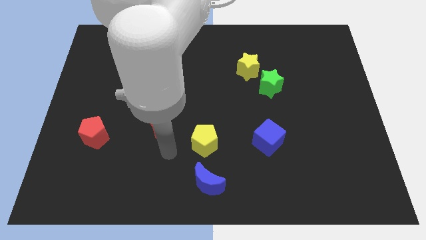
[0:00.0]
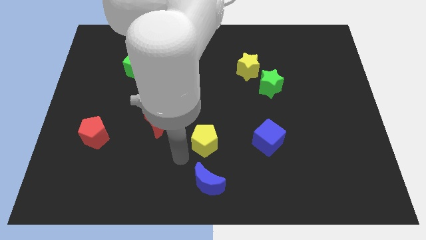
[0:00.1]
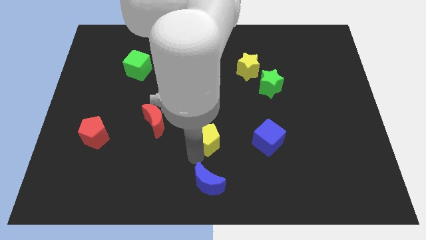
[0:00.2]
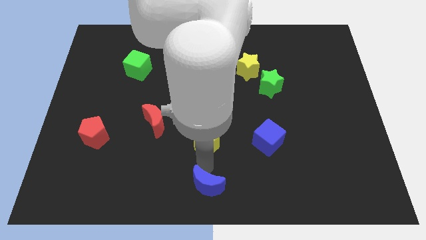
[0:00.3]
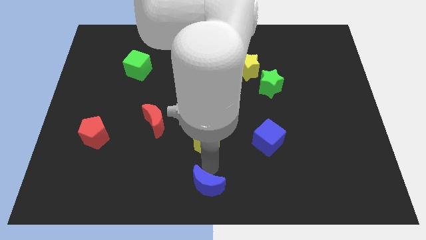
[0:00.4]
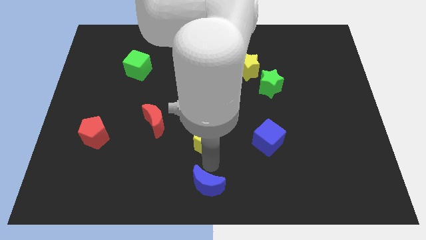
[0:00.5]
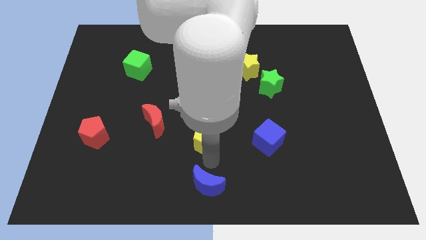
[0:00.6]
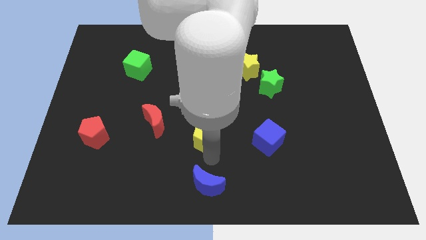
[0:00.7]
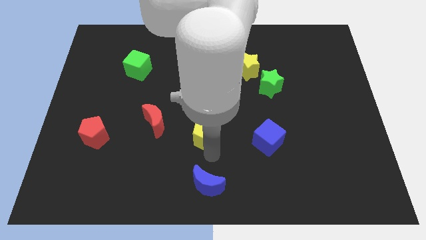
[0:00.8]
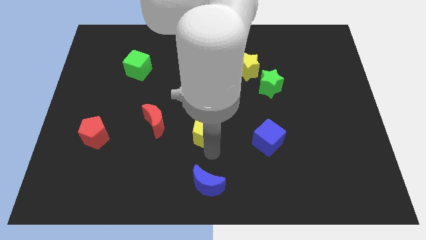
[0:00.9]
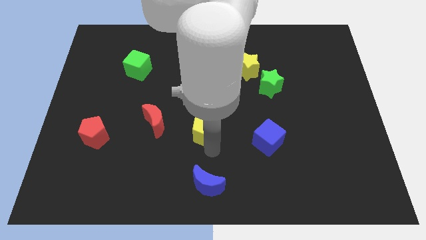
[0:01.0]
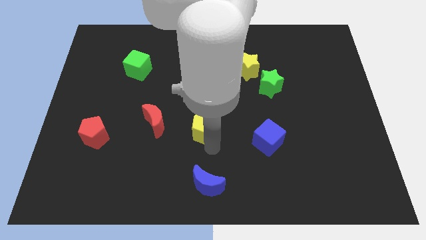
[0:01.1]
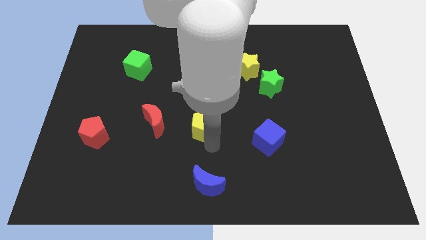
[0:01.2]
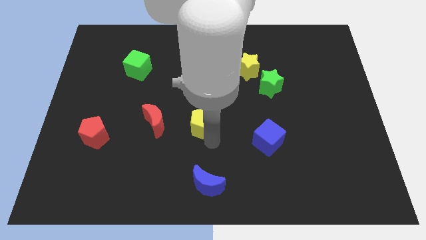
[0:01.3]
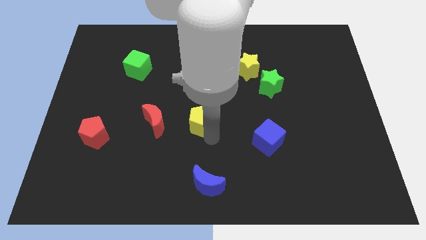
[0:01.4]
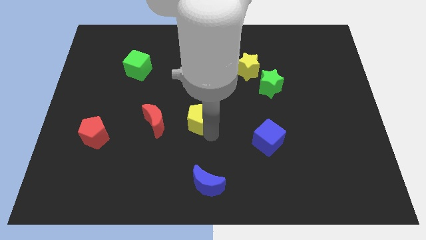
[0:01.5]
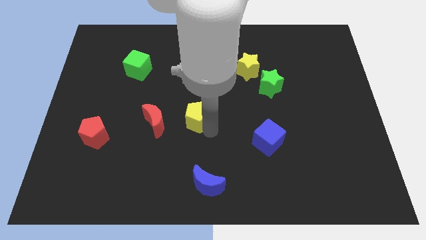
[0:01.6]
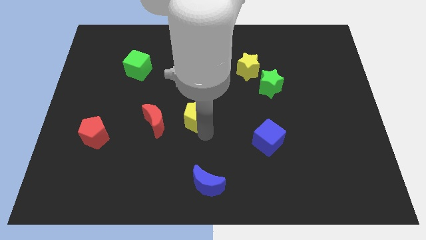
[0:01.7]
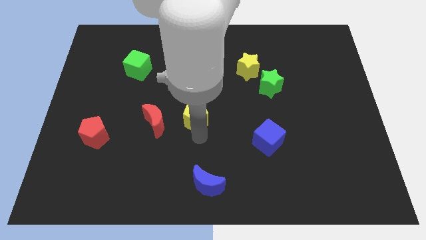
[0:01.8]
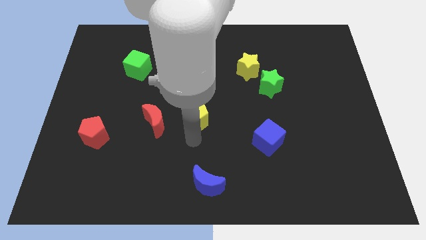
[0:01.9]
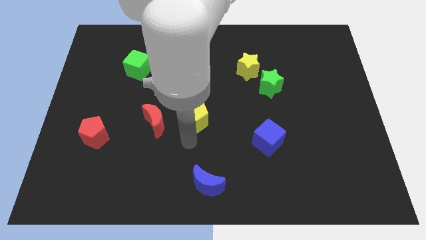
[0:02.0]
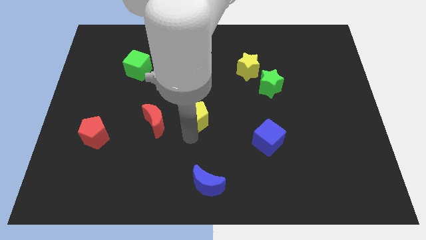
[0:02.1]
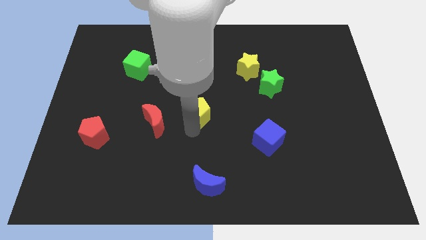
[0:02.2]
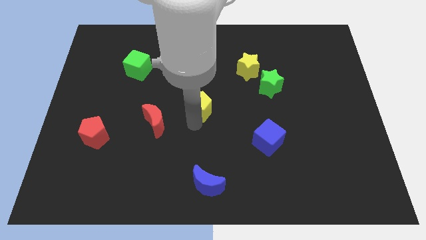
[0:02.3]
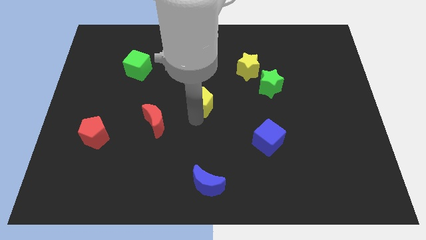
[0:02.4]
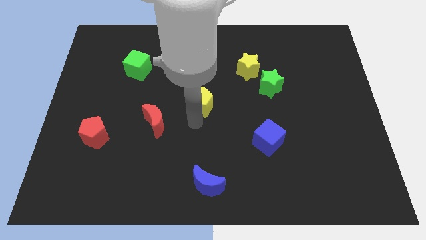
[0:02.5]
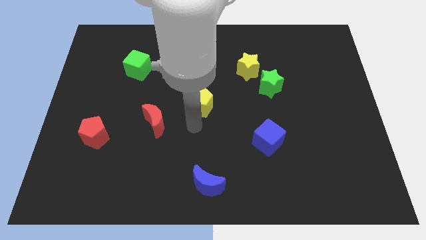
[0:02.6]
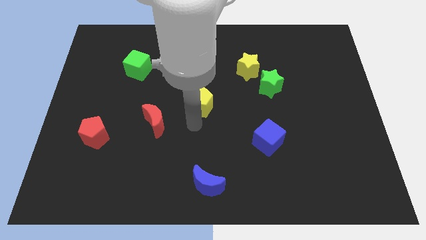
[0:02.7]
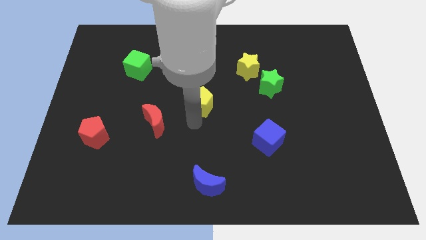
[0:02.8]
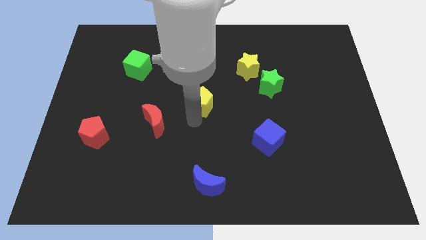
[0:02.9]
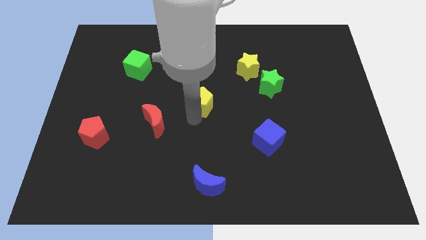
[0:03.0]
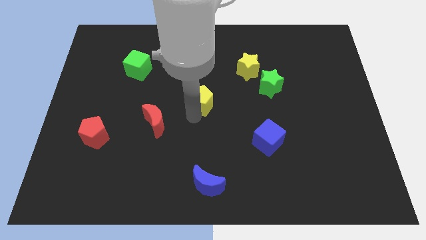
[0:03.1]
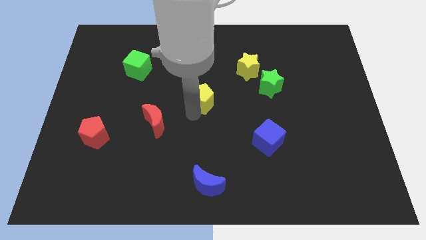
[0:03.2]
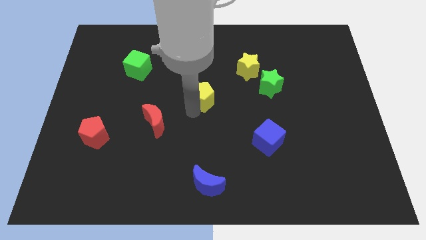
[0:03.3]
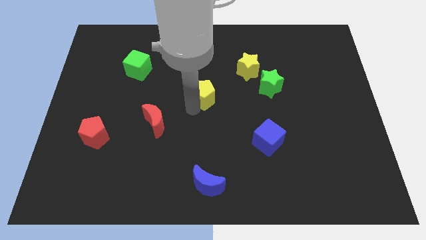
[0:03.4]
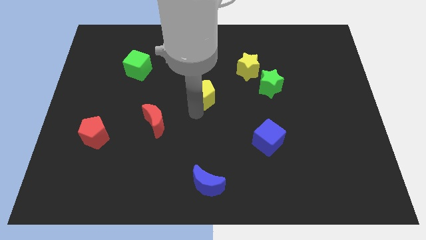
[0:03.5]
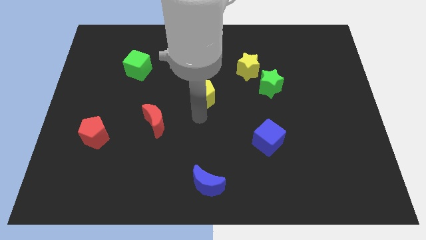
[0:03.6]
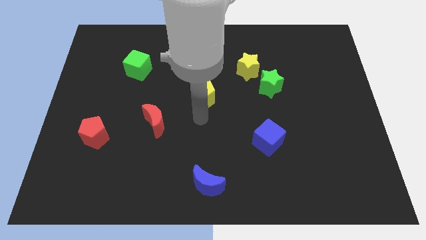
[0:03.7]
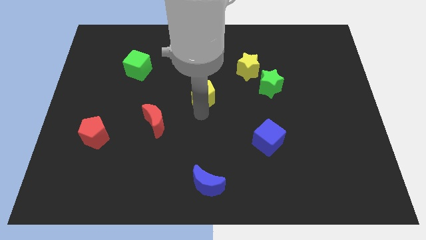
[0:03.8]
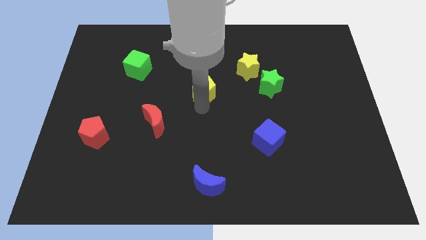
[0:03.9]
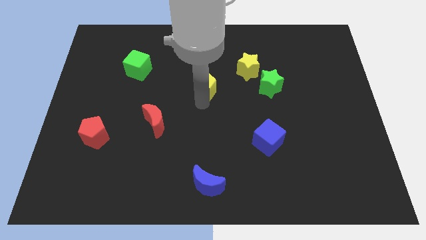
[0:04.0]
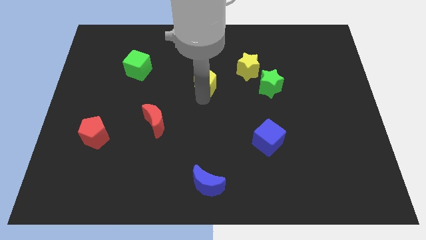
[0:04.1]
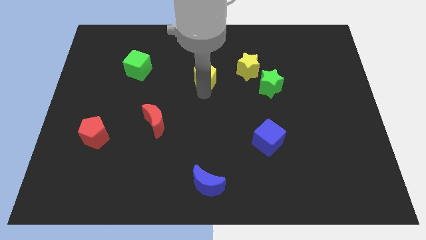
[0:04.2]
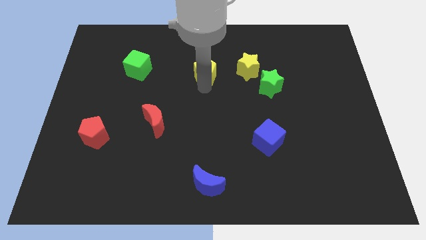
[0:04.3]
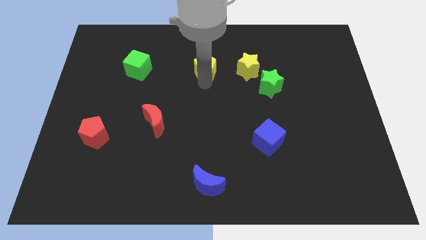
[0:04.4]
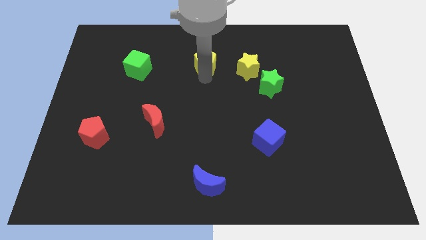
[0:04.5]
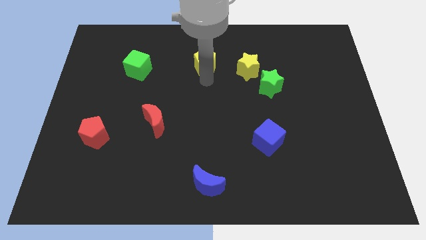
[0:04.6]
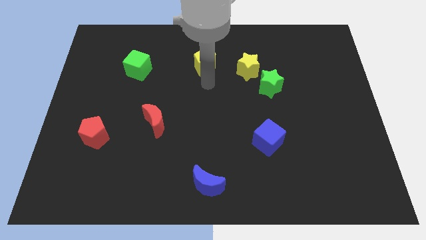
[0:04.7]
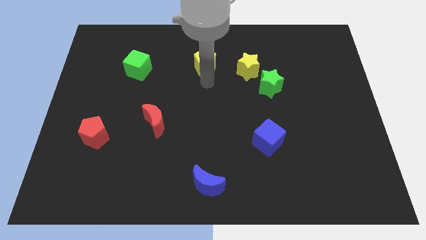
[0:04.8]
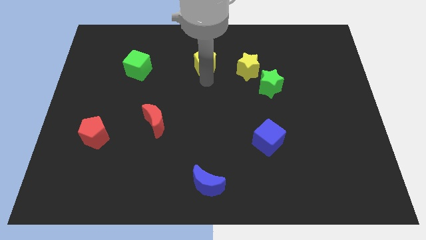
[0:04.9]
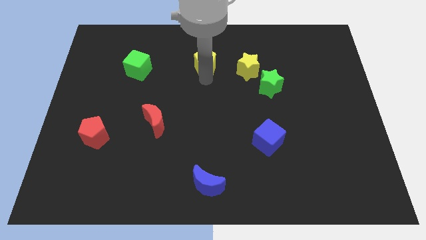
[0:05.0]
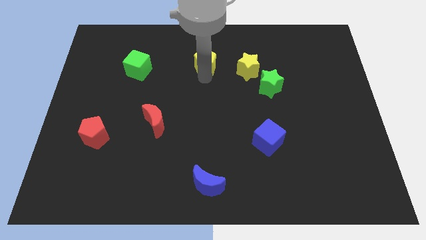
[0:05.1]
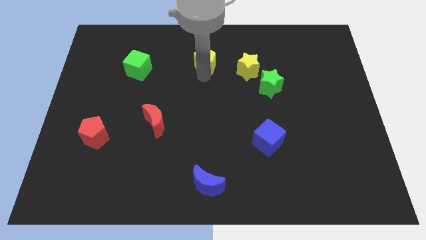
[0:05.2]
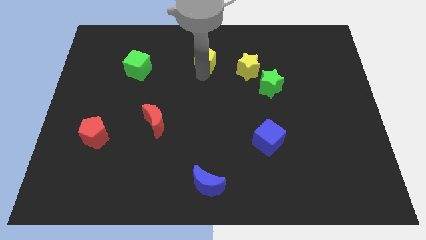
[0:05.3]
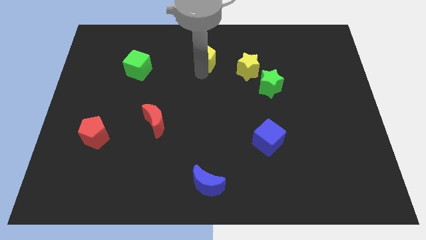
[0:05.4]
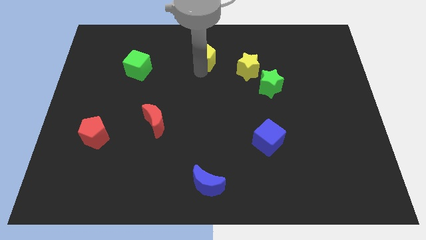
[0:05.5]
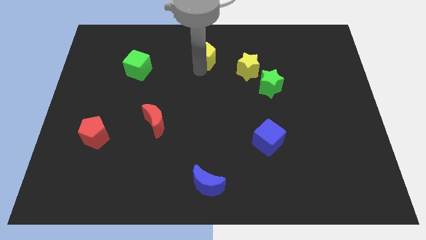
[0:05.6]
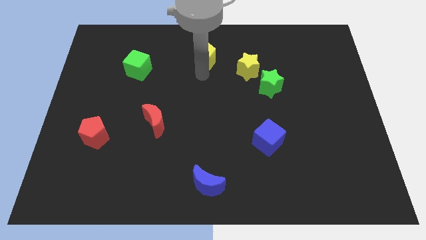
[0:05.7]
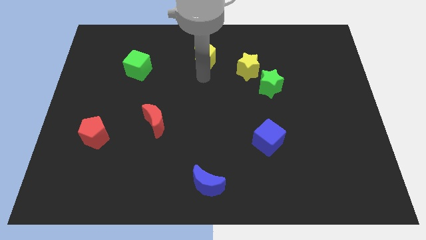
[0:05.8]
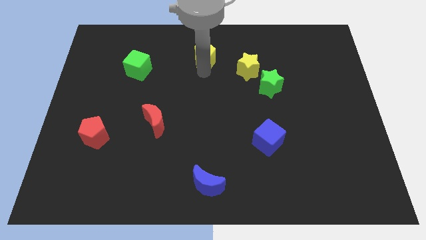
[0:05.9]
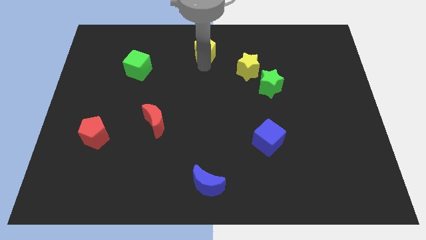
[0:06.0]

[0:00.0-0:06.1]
put the yellow pentagon to the towards your base

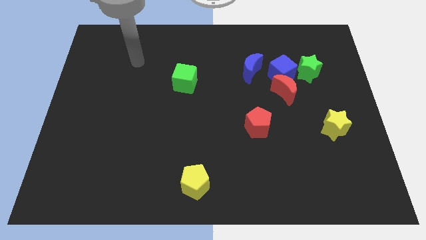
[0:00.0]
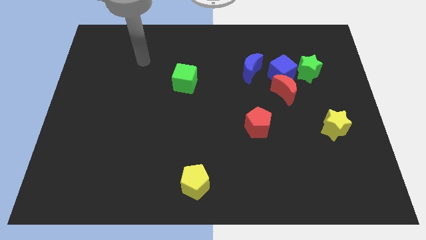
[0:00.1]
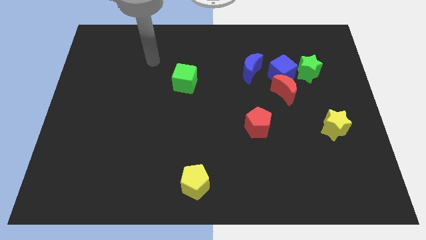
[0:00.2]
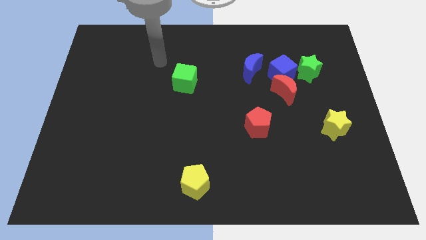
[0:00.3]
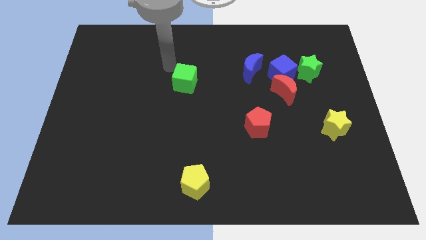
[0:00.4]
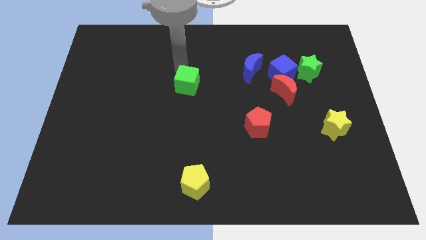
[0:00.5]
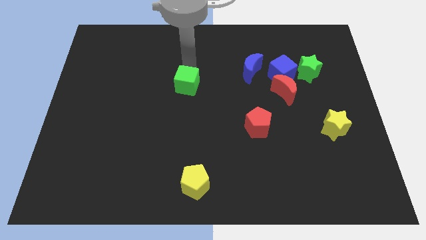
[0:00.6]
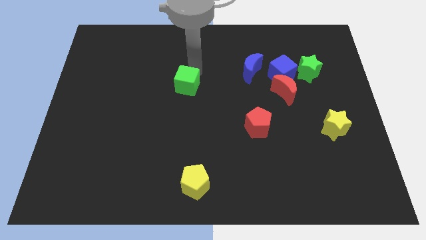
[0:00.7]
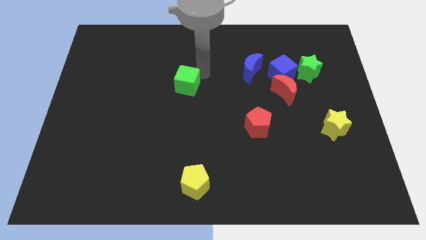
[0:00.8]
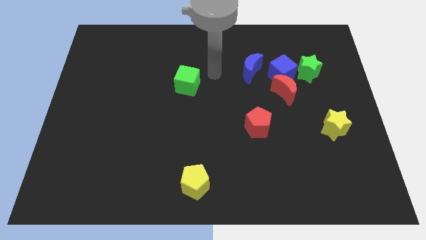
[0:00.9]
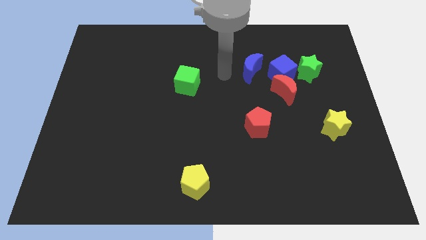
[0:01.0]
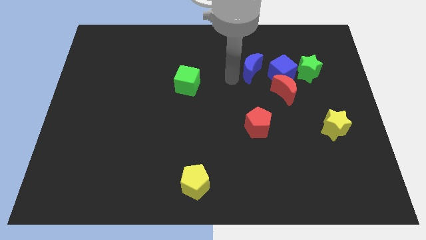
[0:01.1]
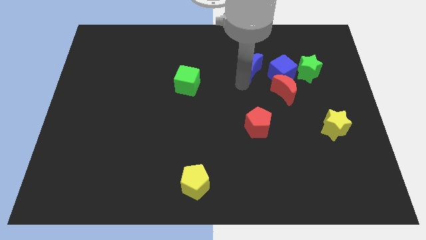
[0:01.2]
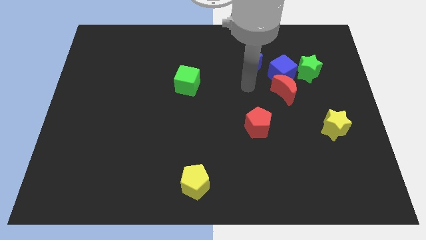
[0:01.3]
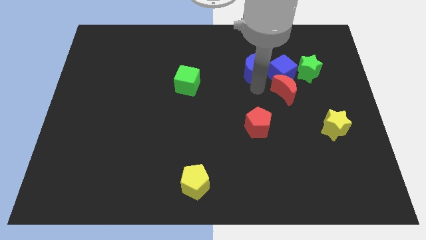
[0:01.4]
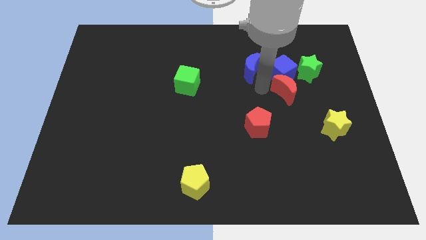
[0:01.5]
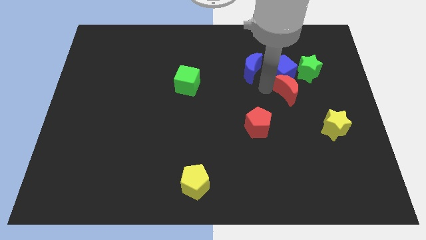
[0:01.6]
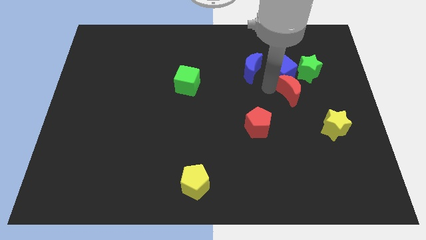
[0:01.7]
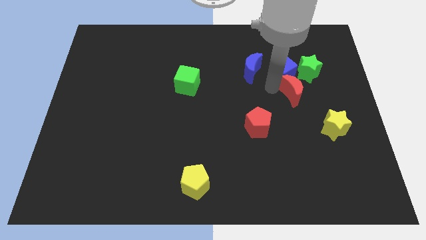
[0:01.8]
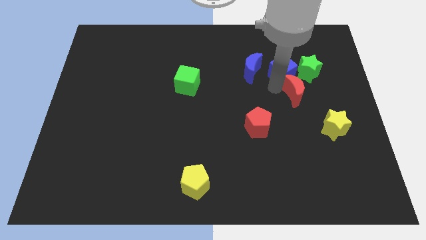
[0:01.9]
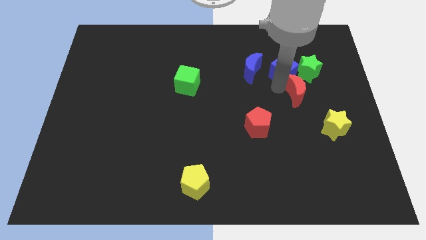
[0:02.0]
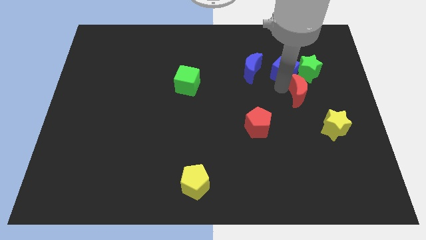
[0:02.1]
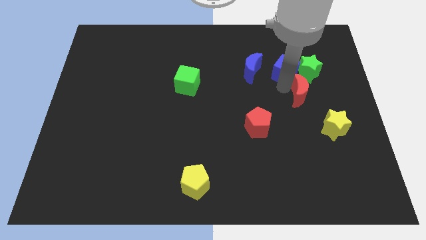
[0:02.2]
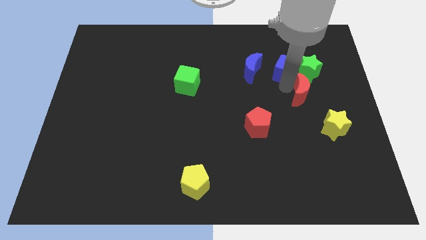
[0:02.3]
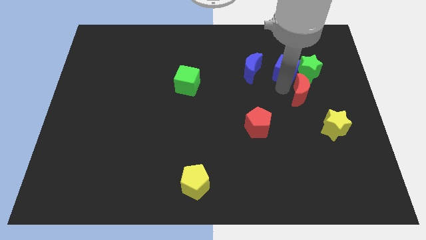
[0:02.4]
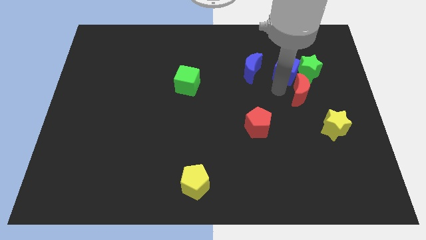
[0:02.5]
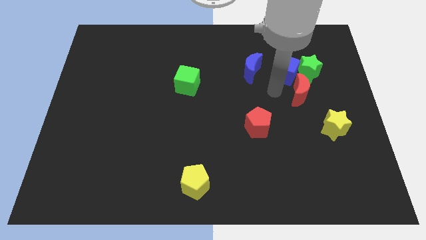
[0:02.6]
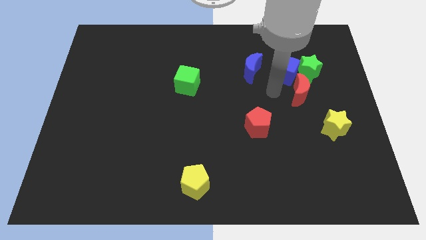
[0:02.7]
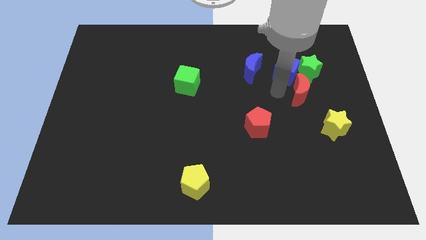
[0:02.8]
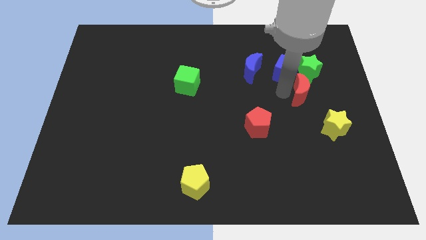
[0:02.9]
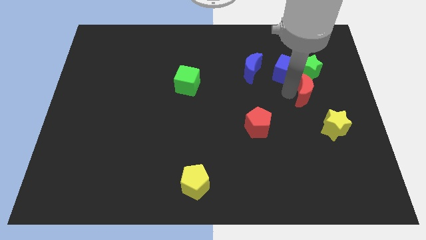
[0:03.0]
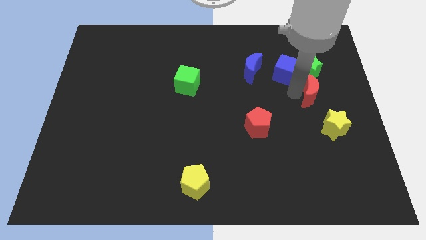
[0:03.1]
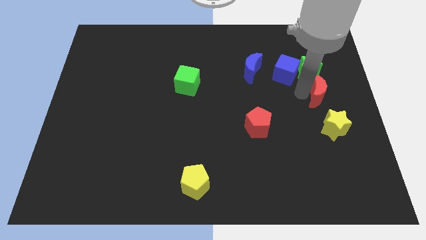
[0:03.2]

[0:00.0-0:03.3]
move the red moon to the right side of the board
